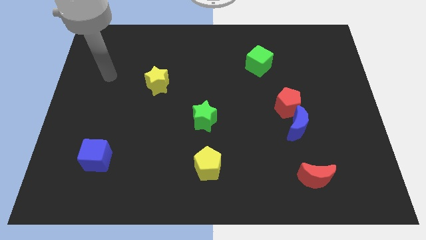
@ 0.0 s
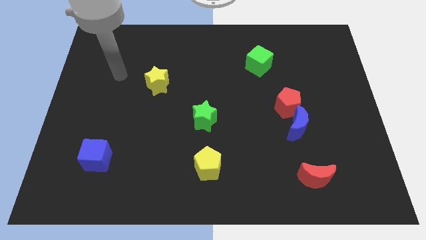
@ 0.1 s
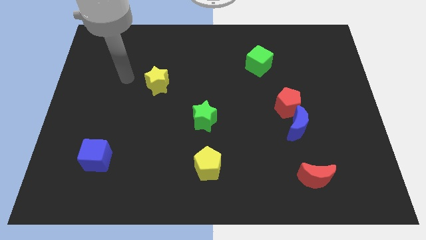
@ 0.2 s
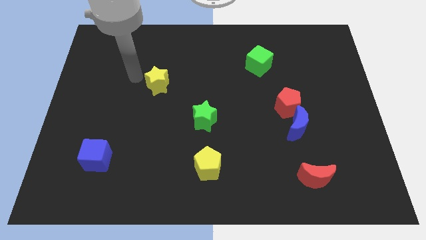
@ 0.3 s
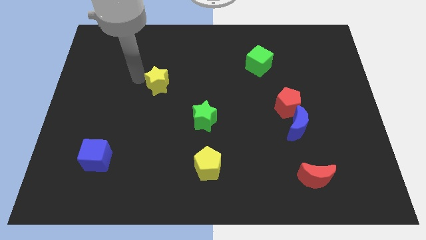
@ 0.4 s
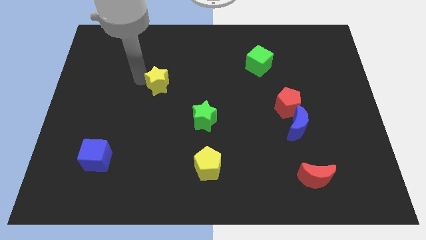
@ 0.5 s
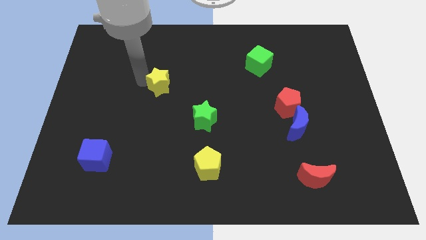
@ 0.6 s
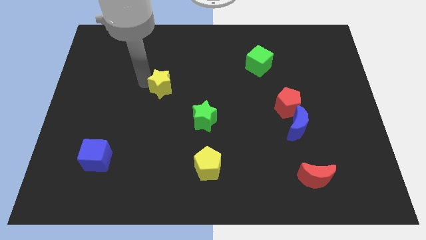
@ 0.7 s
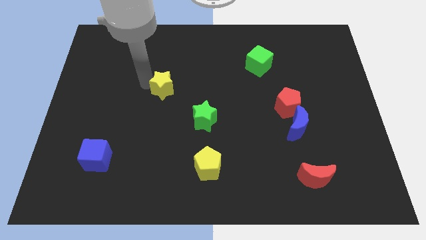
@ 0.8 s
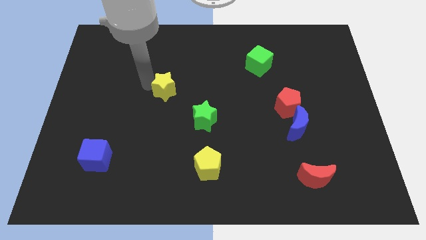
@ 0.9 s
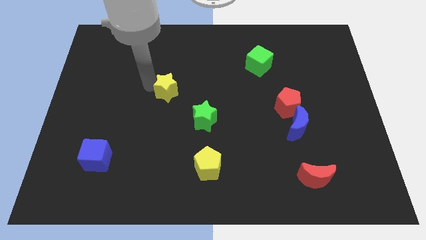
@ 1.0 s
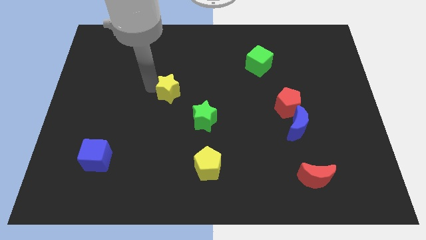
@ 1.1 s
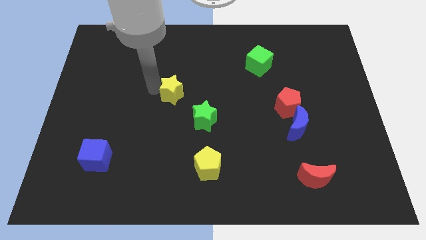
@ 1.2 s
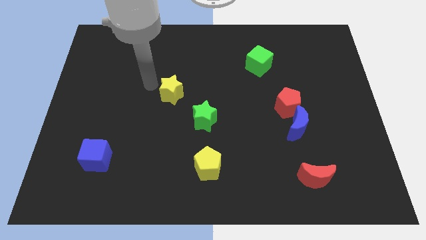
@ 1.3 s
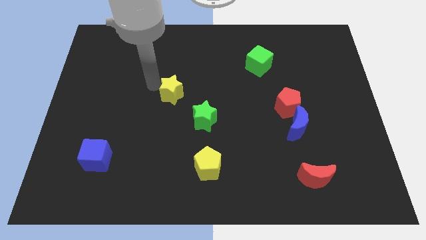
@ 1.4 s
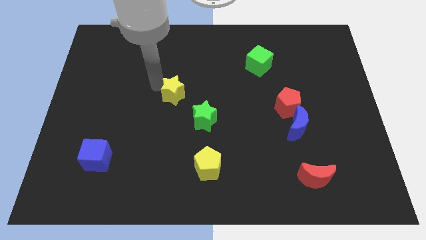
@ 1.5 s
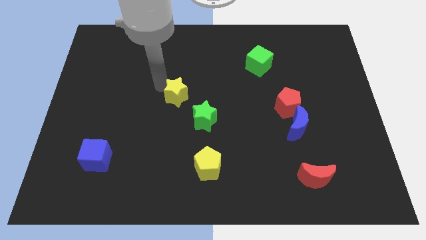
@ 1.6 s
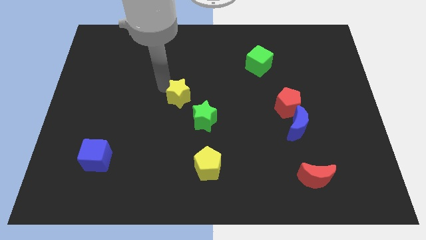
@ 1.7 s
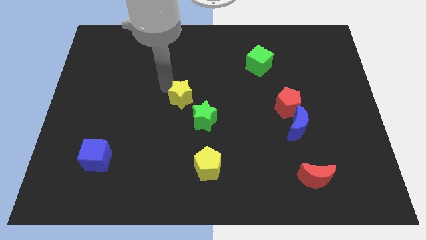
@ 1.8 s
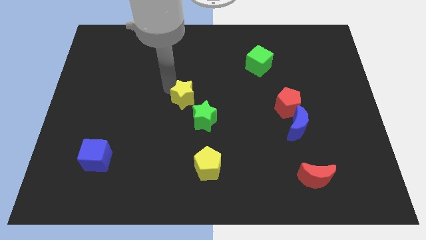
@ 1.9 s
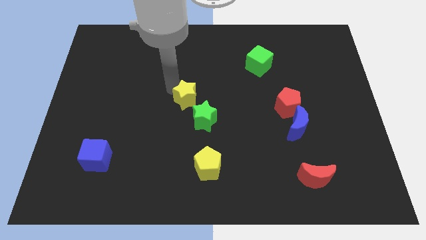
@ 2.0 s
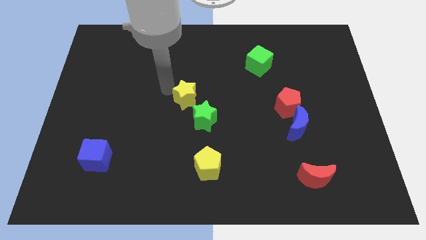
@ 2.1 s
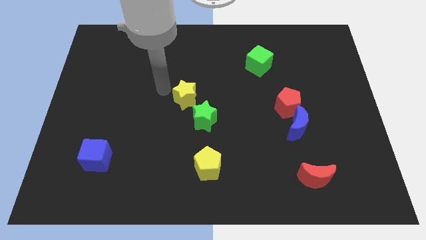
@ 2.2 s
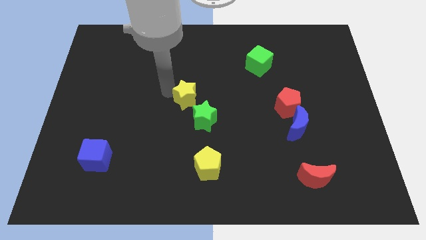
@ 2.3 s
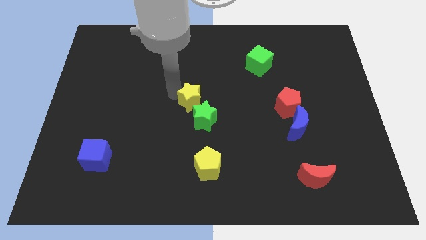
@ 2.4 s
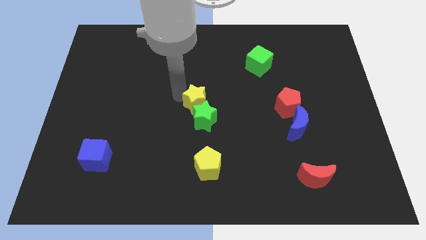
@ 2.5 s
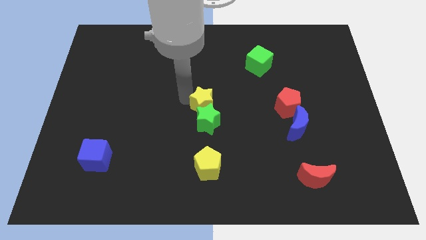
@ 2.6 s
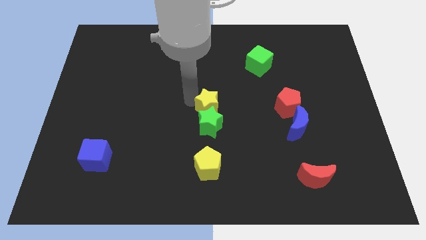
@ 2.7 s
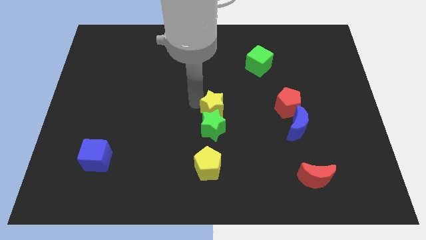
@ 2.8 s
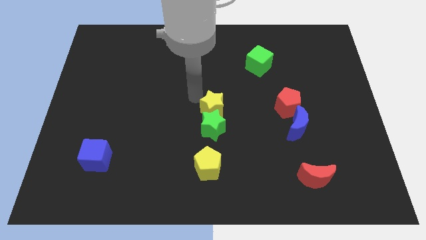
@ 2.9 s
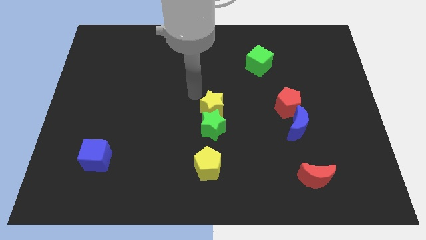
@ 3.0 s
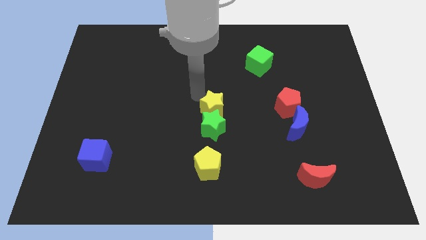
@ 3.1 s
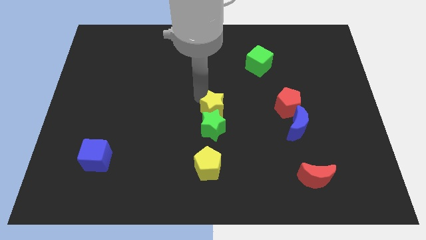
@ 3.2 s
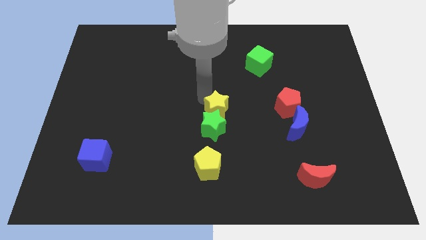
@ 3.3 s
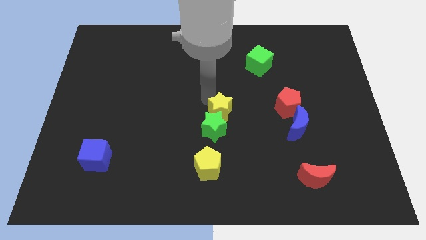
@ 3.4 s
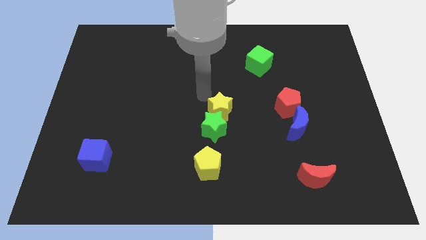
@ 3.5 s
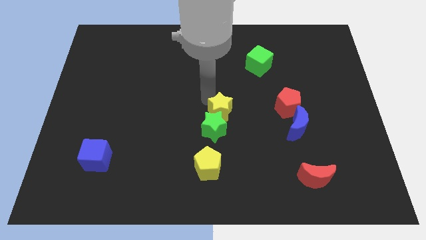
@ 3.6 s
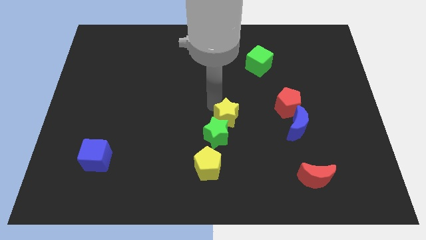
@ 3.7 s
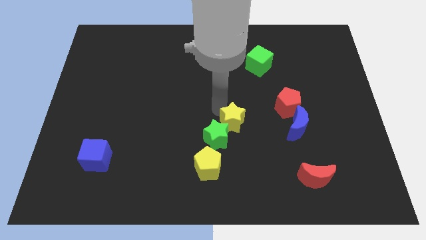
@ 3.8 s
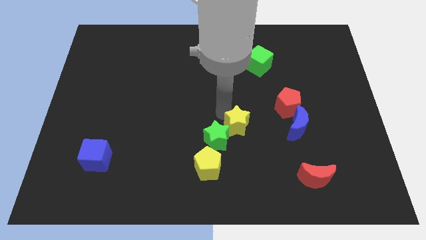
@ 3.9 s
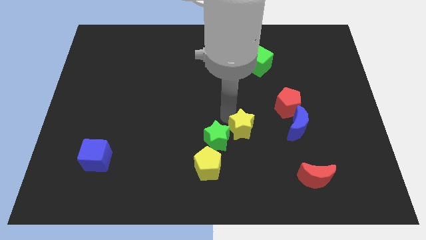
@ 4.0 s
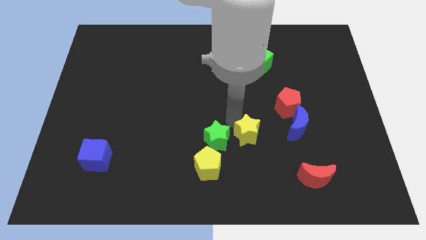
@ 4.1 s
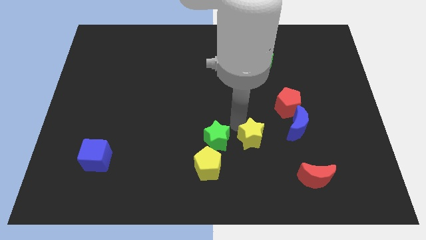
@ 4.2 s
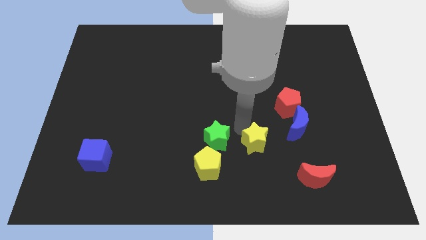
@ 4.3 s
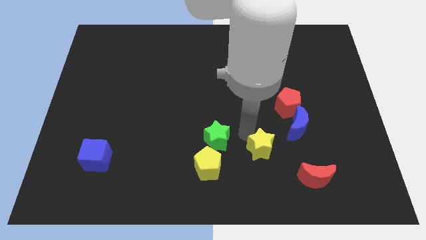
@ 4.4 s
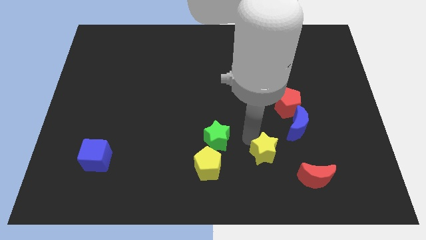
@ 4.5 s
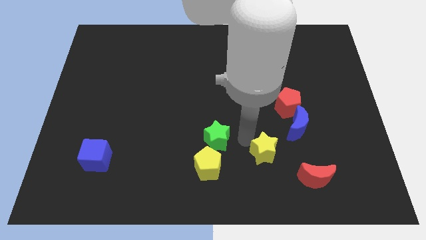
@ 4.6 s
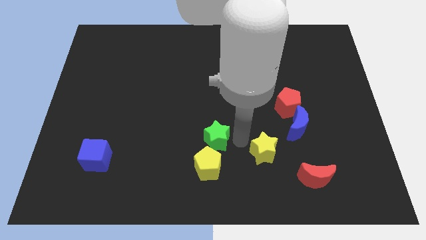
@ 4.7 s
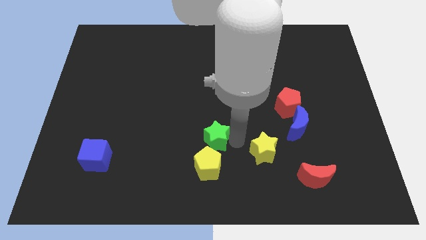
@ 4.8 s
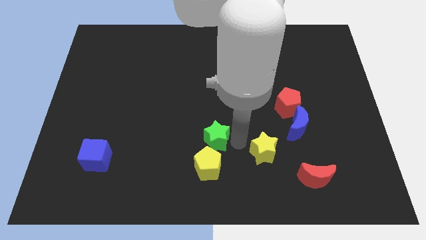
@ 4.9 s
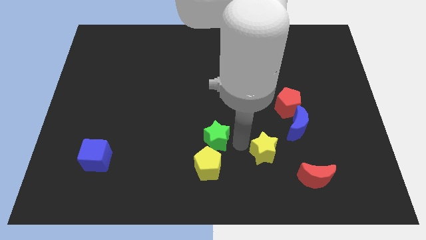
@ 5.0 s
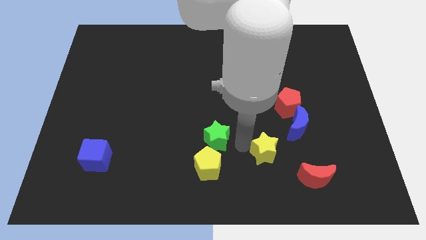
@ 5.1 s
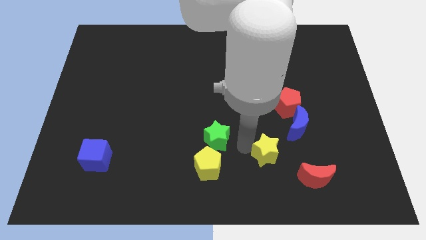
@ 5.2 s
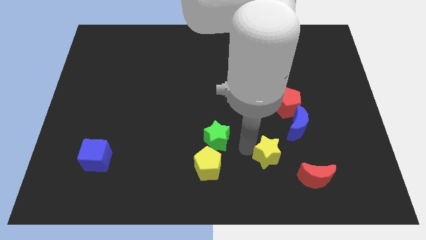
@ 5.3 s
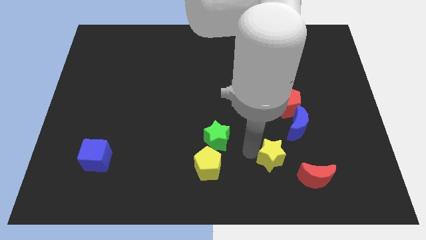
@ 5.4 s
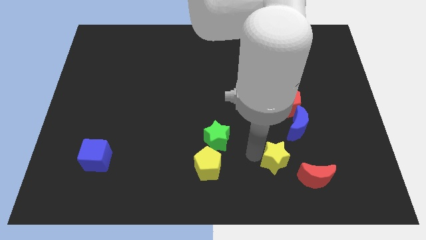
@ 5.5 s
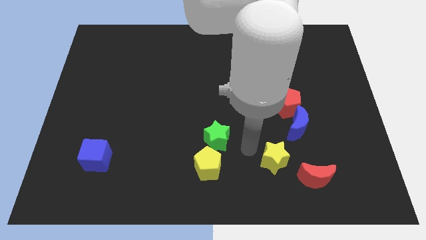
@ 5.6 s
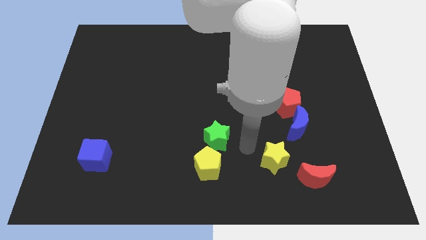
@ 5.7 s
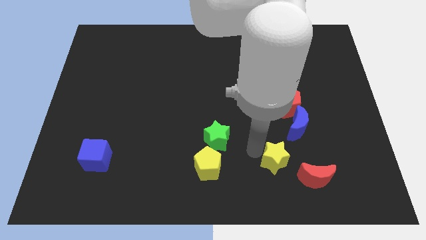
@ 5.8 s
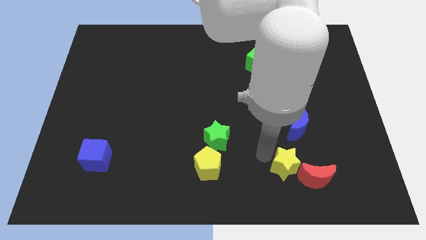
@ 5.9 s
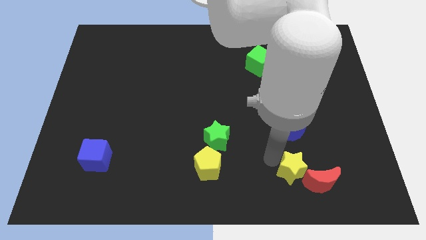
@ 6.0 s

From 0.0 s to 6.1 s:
slide the yellow star close to the red moon

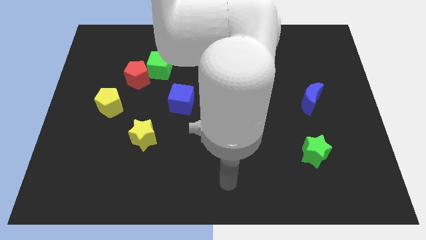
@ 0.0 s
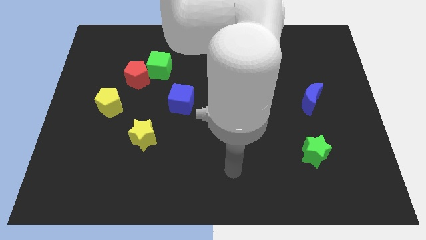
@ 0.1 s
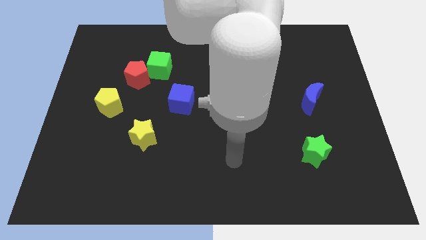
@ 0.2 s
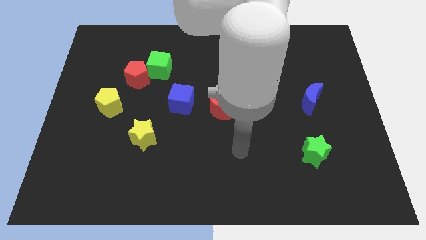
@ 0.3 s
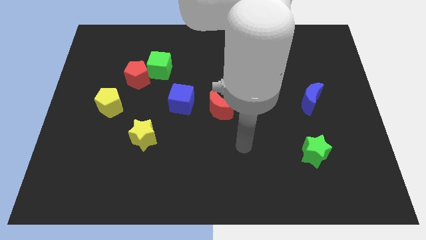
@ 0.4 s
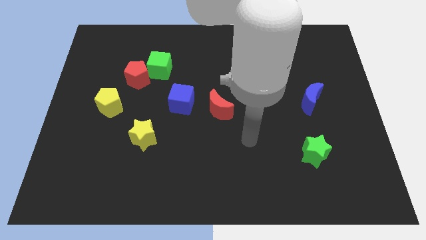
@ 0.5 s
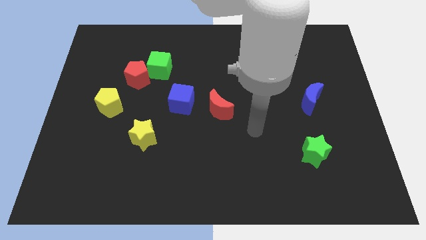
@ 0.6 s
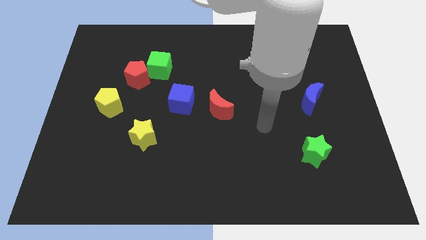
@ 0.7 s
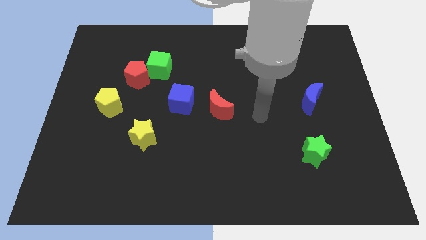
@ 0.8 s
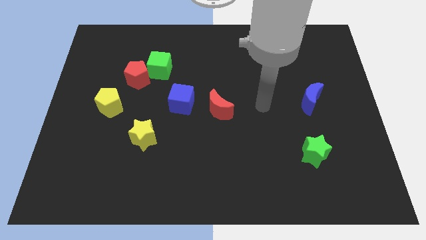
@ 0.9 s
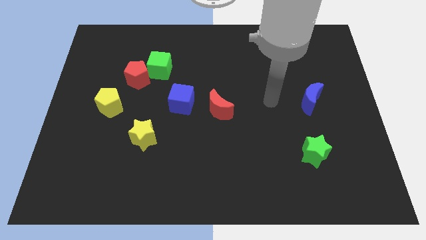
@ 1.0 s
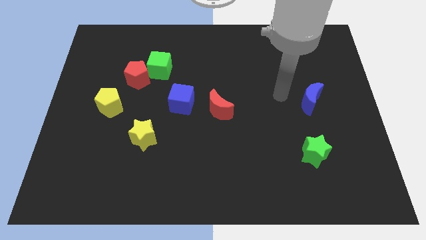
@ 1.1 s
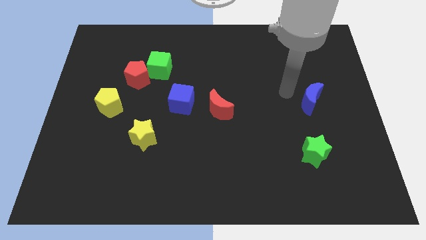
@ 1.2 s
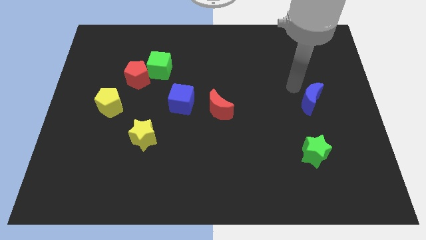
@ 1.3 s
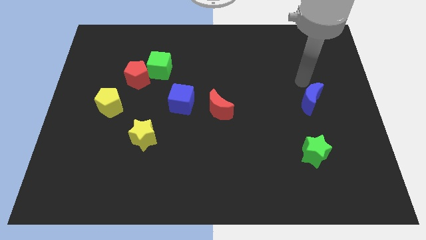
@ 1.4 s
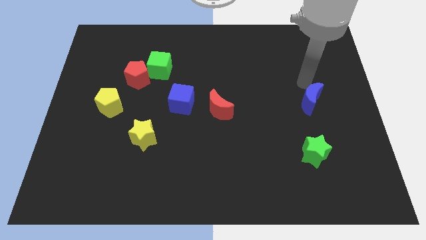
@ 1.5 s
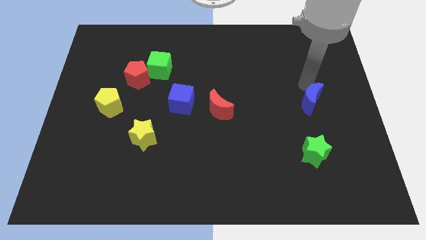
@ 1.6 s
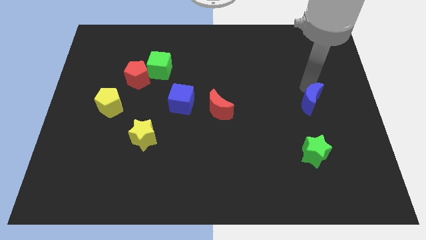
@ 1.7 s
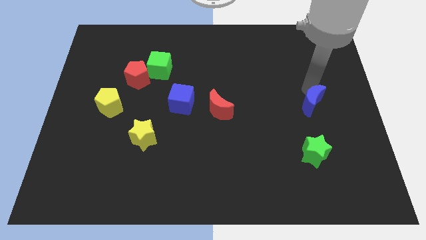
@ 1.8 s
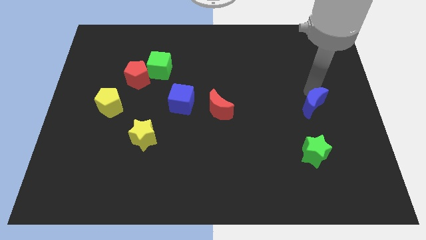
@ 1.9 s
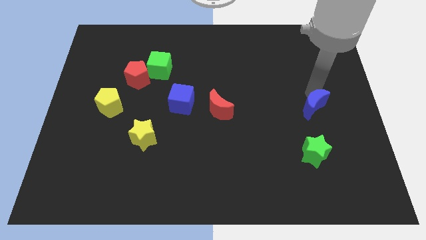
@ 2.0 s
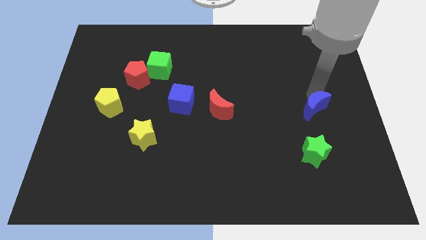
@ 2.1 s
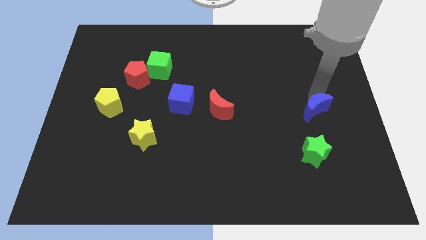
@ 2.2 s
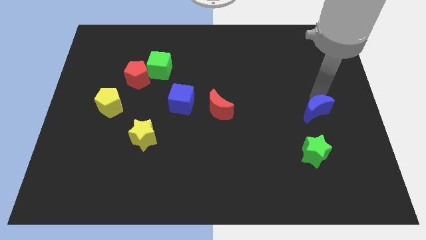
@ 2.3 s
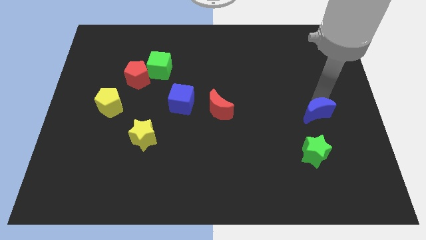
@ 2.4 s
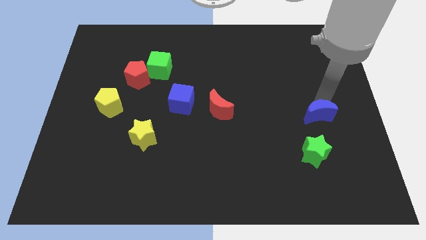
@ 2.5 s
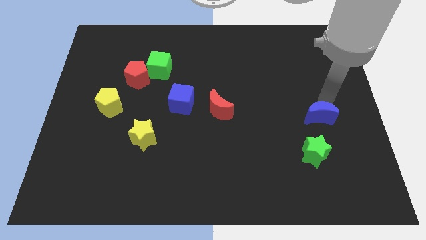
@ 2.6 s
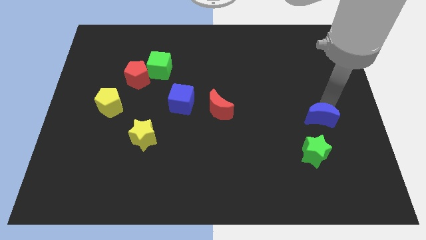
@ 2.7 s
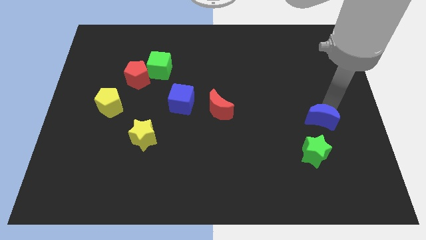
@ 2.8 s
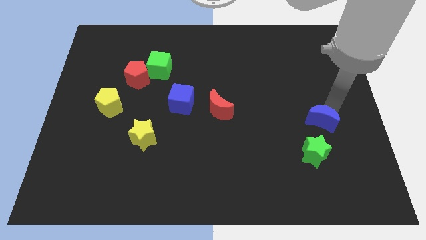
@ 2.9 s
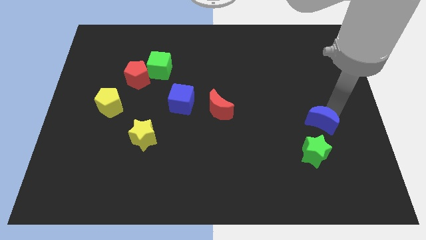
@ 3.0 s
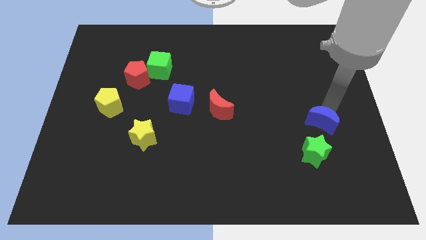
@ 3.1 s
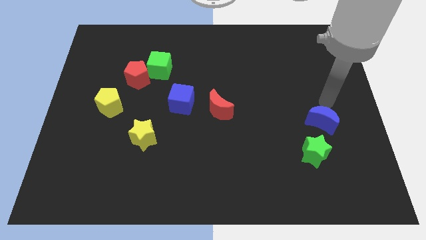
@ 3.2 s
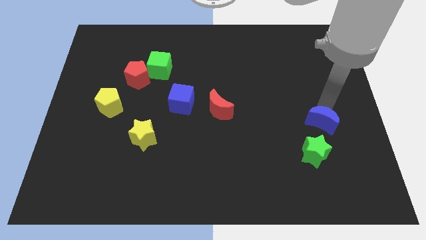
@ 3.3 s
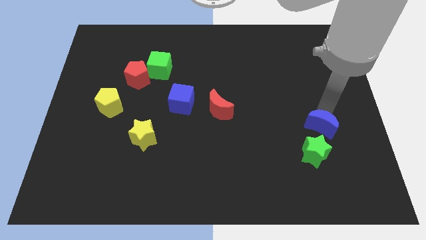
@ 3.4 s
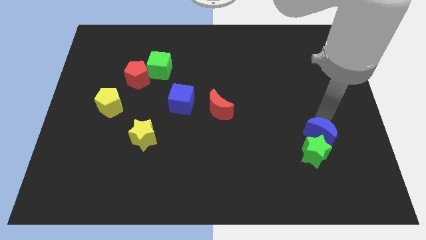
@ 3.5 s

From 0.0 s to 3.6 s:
move the blue moon next to the green star
